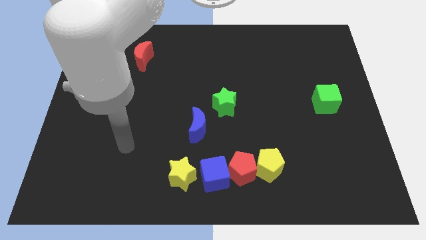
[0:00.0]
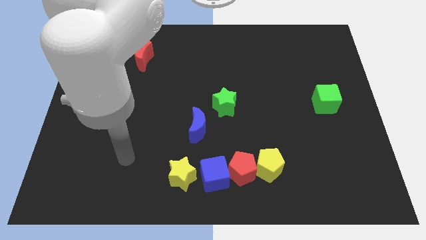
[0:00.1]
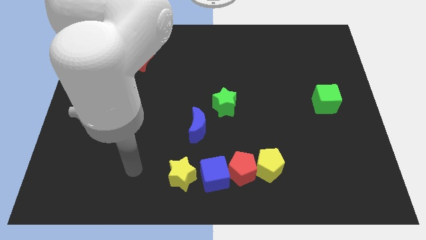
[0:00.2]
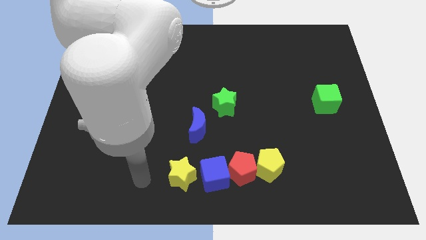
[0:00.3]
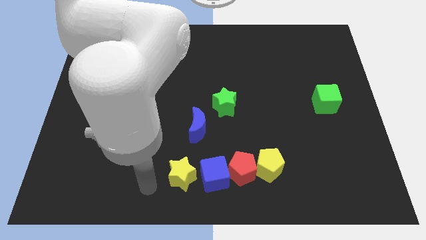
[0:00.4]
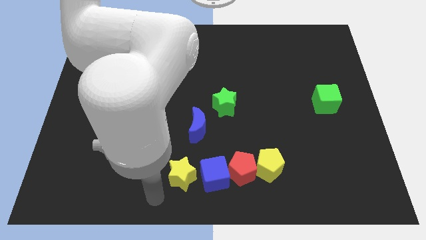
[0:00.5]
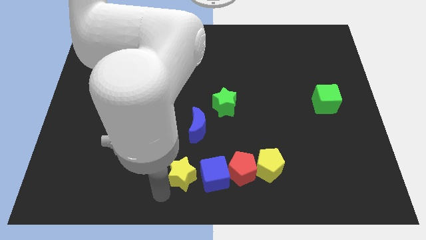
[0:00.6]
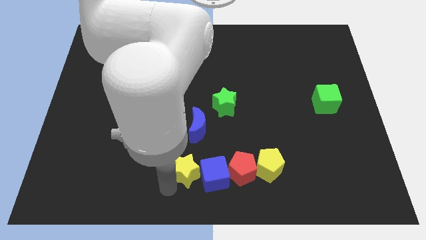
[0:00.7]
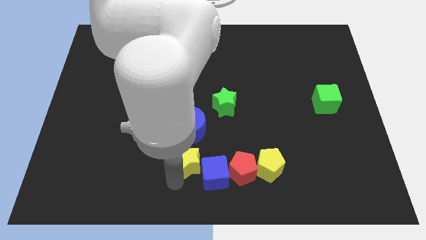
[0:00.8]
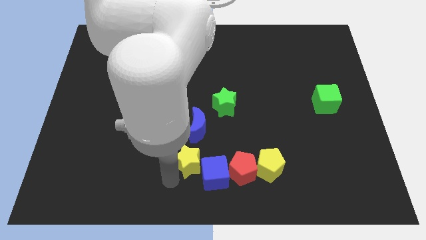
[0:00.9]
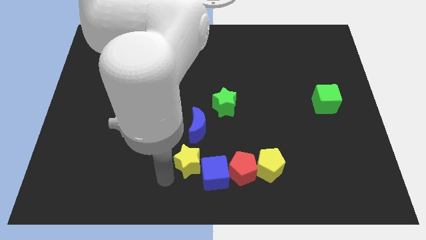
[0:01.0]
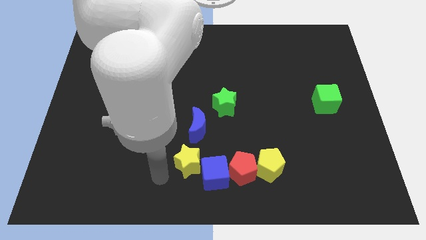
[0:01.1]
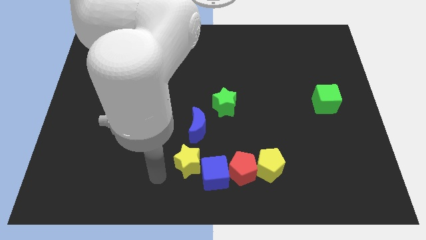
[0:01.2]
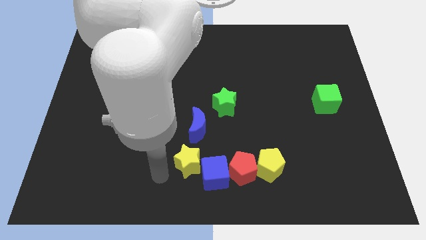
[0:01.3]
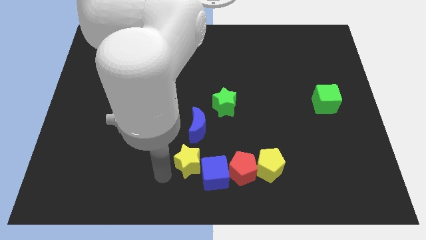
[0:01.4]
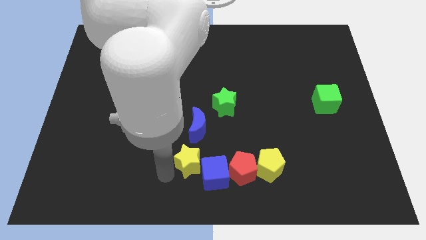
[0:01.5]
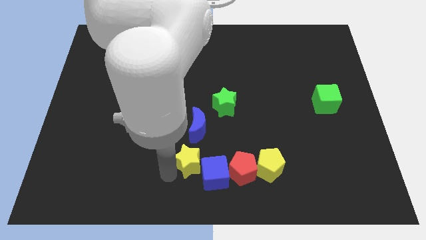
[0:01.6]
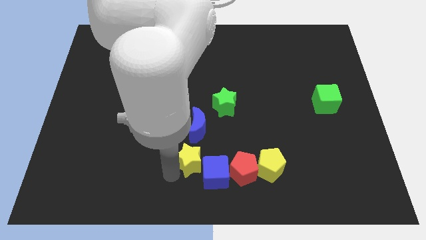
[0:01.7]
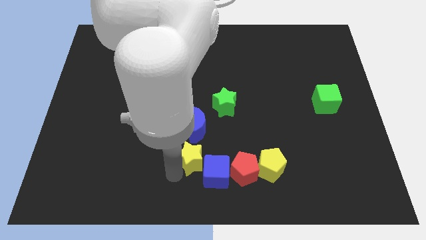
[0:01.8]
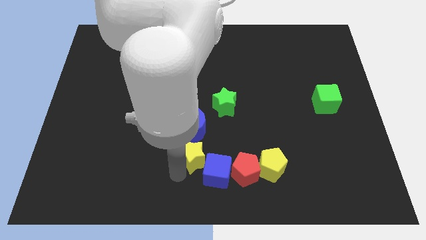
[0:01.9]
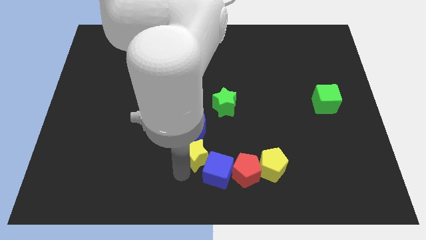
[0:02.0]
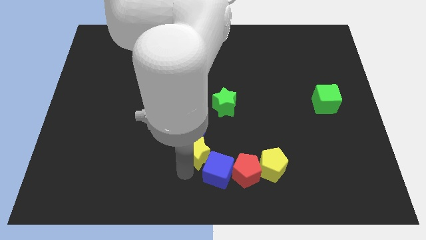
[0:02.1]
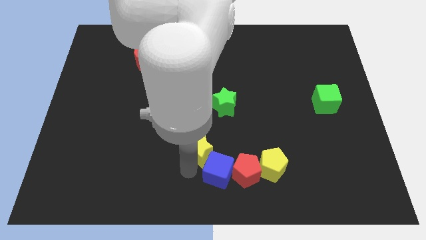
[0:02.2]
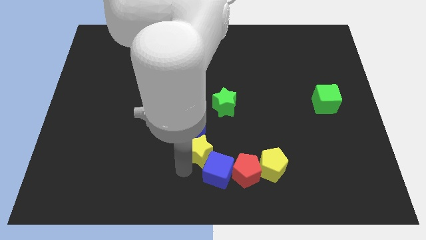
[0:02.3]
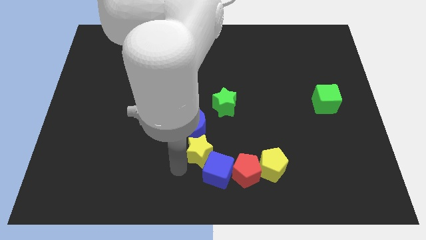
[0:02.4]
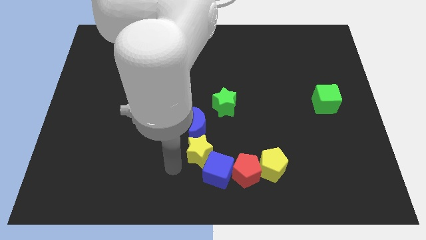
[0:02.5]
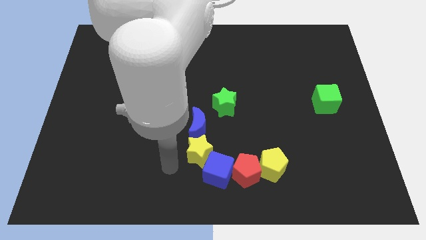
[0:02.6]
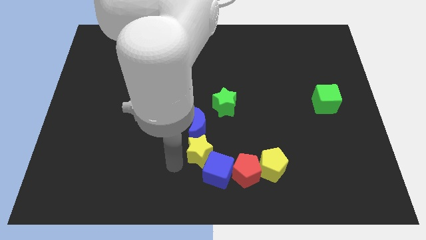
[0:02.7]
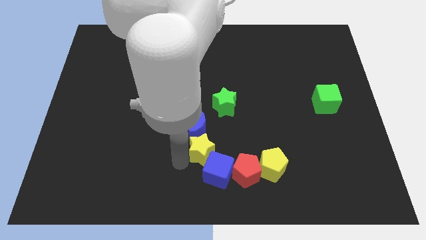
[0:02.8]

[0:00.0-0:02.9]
move the yellow star diagonally upwards and right slightly

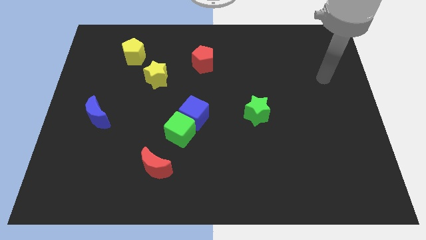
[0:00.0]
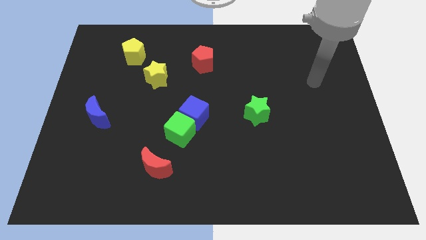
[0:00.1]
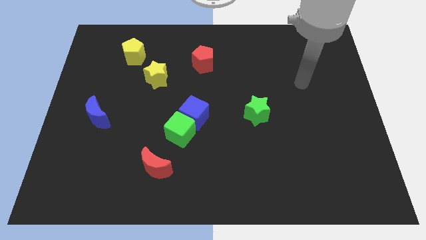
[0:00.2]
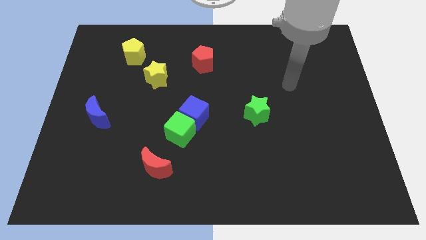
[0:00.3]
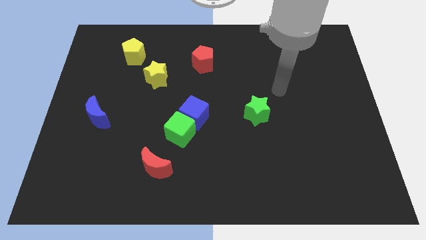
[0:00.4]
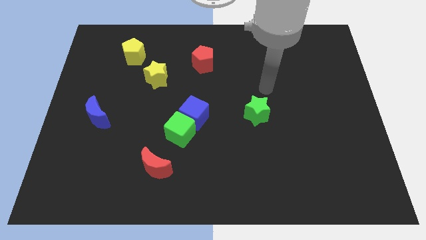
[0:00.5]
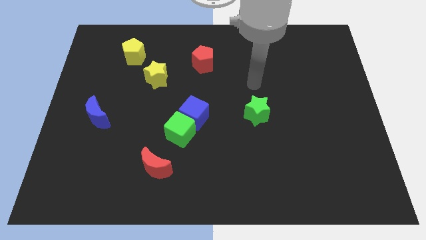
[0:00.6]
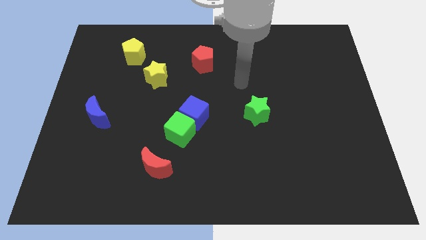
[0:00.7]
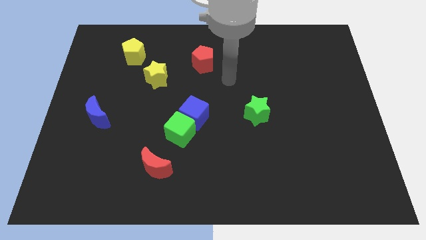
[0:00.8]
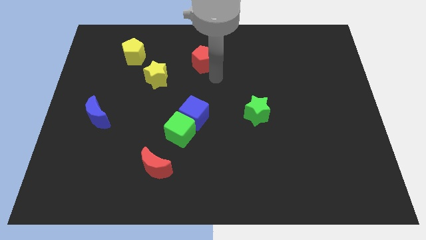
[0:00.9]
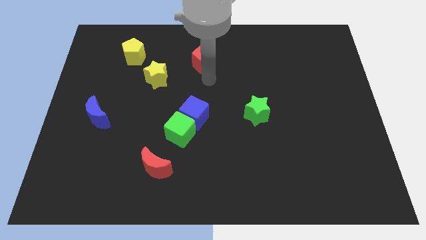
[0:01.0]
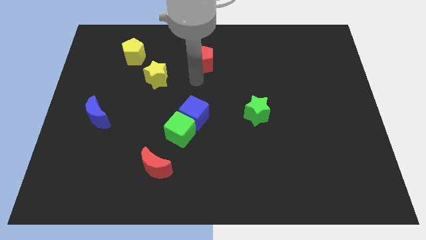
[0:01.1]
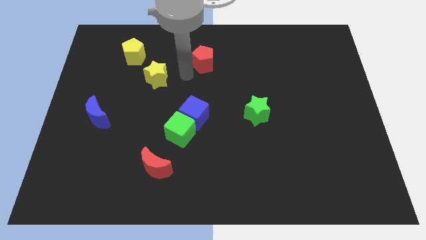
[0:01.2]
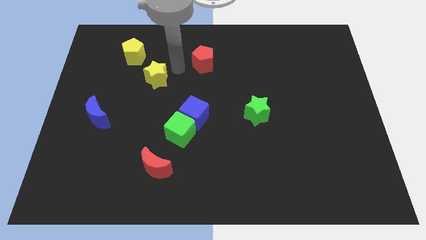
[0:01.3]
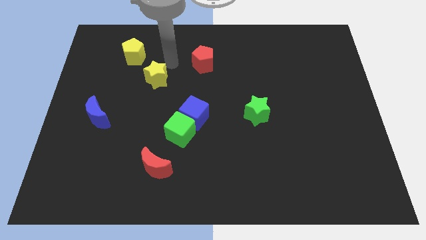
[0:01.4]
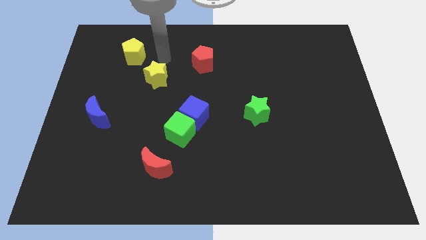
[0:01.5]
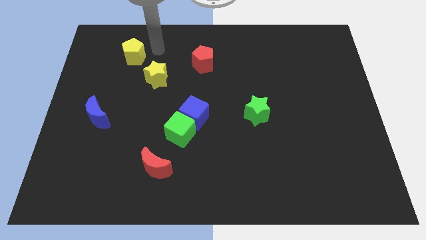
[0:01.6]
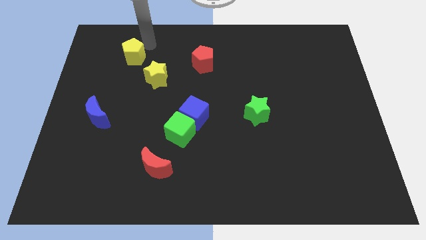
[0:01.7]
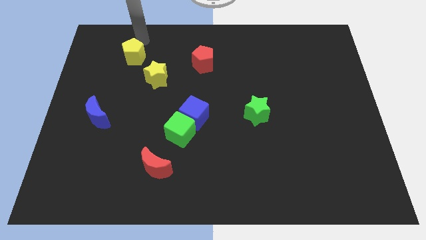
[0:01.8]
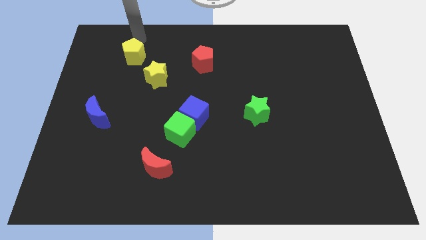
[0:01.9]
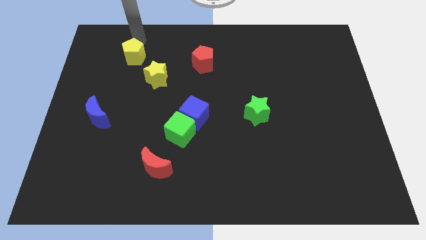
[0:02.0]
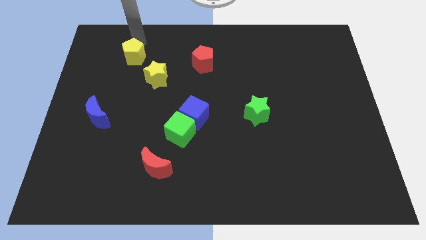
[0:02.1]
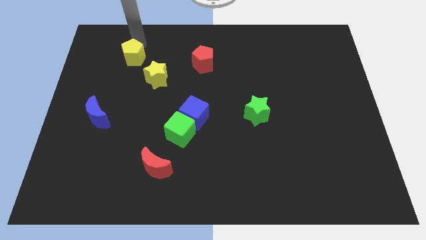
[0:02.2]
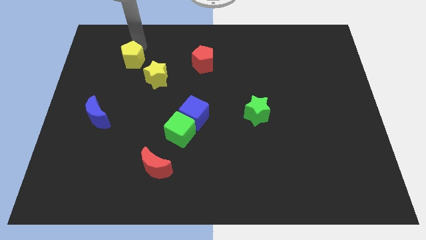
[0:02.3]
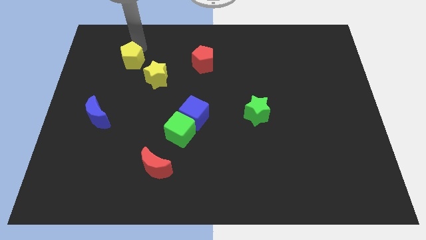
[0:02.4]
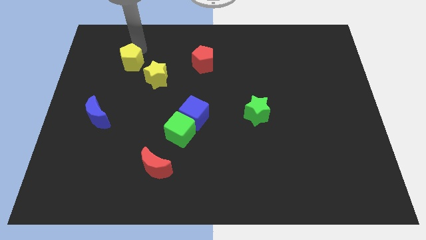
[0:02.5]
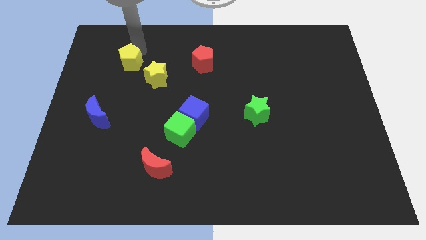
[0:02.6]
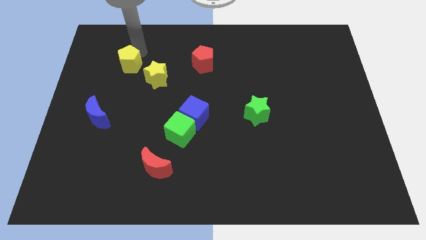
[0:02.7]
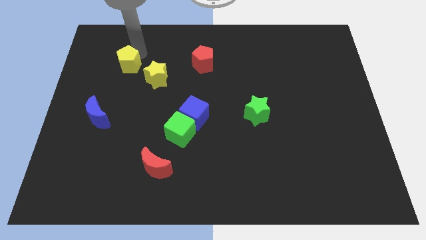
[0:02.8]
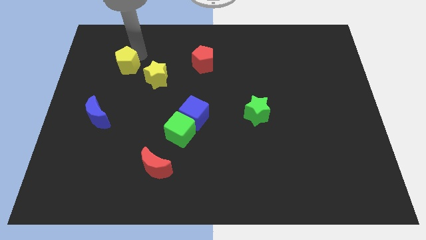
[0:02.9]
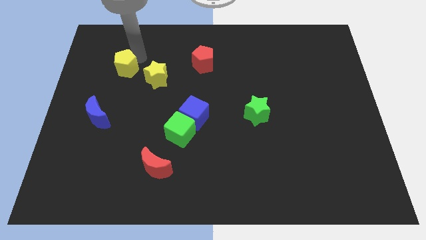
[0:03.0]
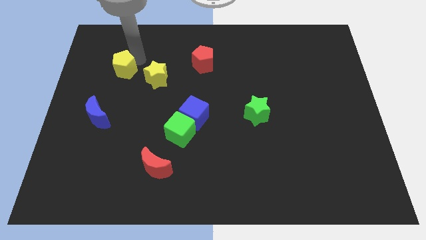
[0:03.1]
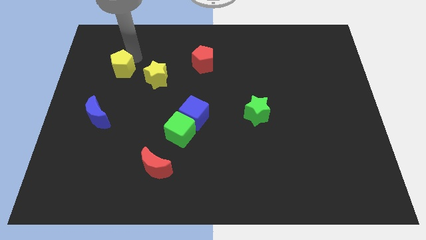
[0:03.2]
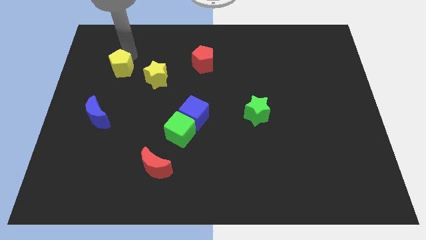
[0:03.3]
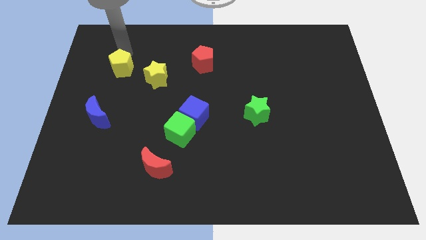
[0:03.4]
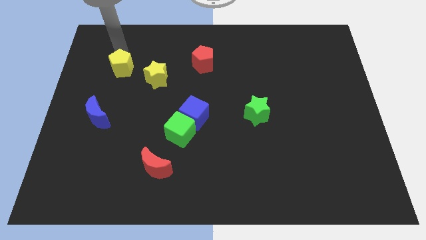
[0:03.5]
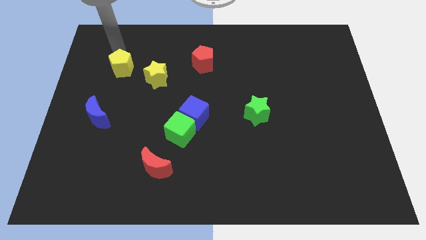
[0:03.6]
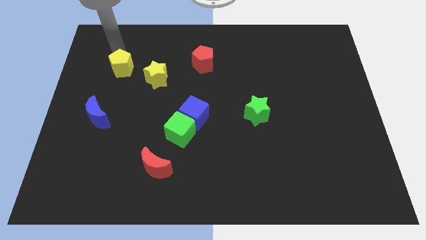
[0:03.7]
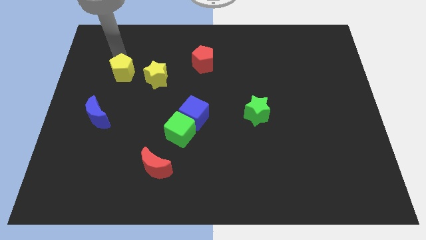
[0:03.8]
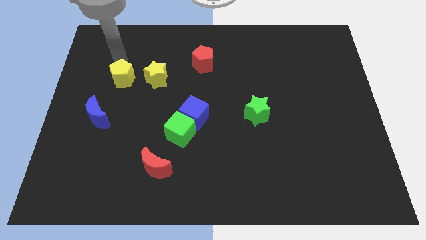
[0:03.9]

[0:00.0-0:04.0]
push the yellow pentagon a little downwards

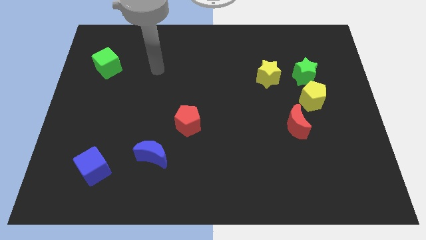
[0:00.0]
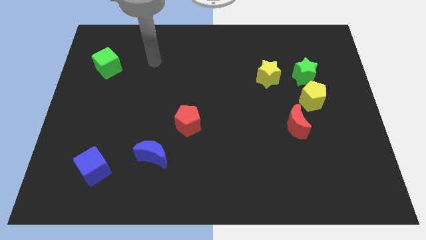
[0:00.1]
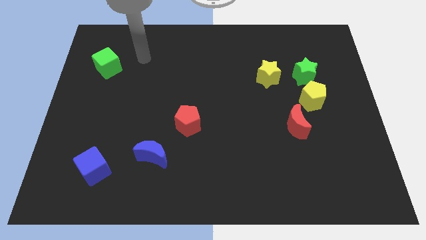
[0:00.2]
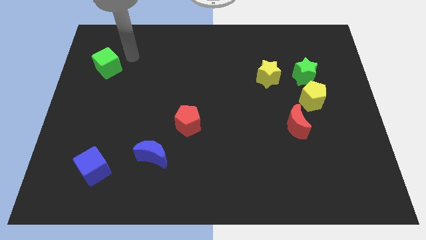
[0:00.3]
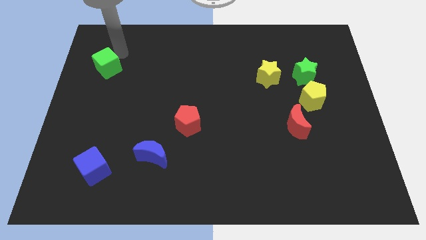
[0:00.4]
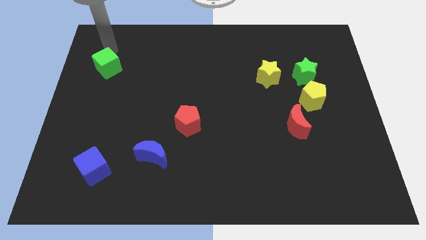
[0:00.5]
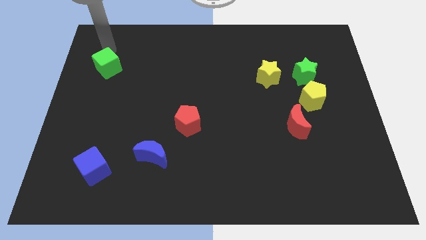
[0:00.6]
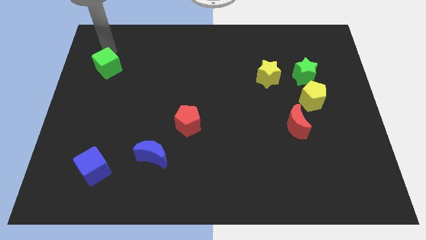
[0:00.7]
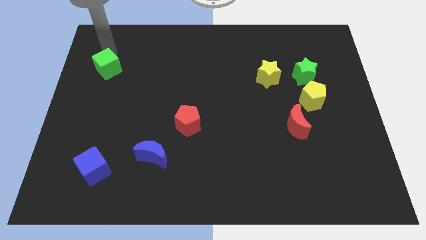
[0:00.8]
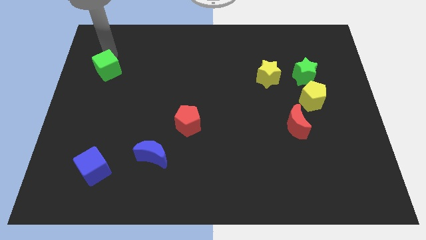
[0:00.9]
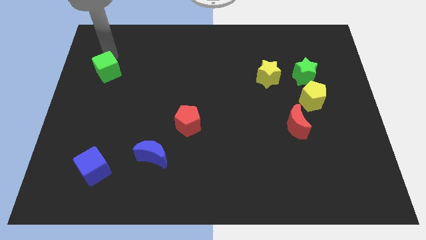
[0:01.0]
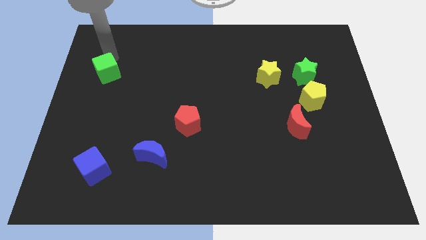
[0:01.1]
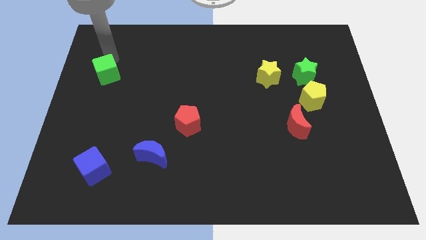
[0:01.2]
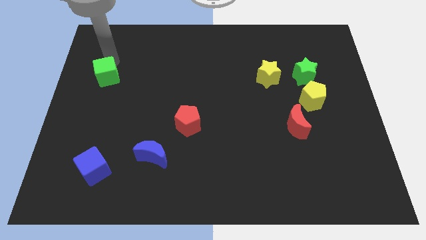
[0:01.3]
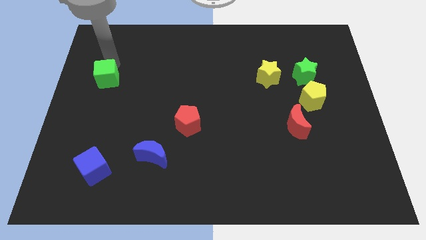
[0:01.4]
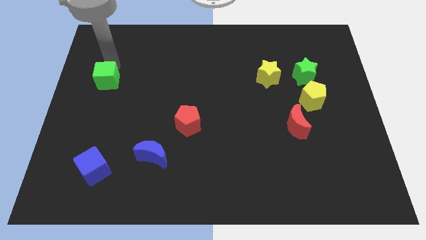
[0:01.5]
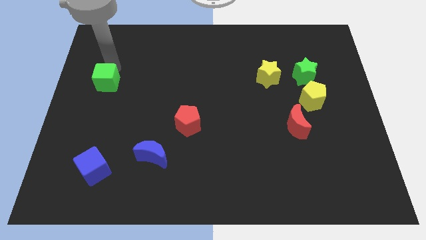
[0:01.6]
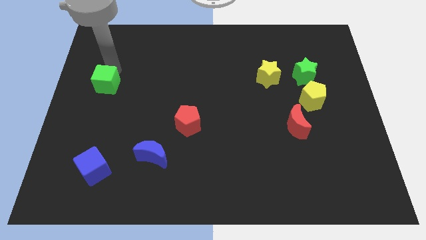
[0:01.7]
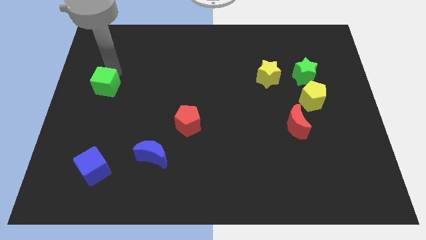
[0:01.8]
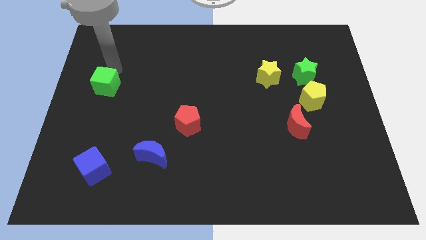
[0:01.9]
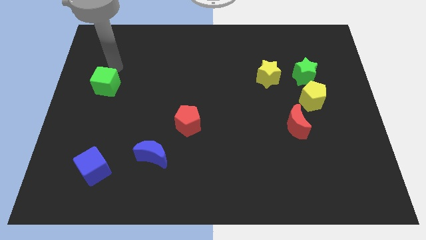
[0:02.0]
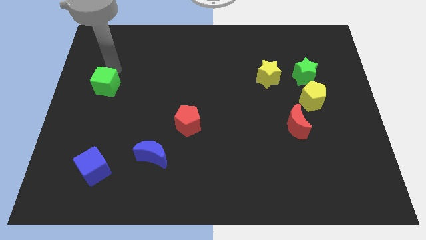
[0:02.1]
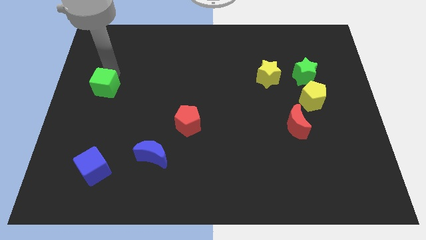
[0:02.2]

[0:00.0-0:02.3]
slide the green cube downwards a bit
